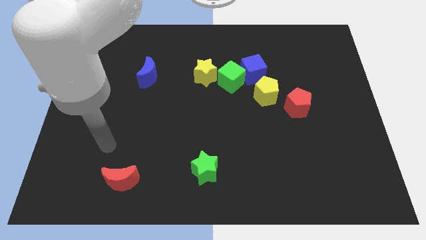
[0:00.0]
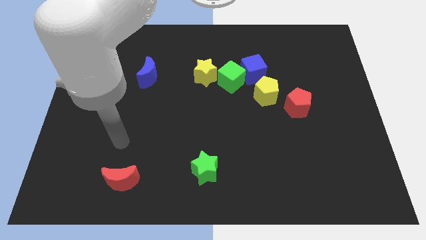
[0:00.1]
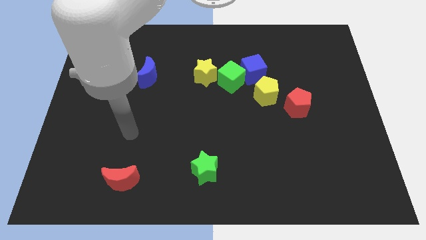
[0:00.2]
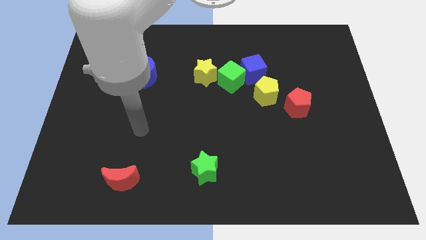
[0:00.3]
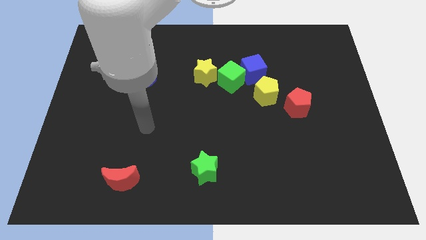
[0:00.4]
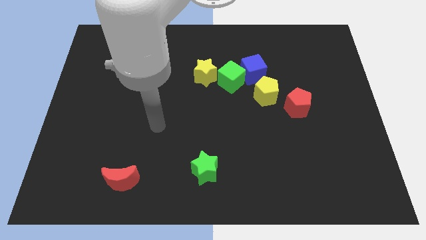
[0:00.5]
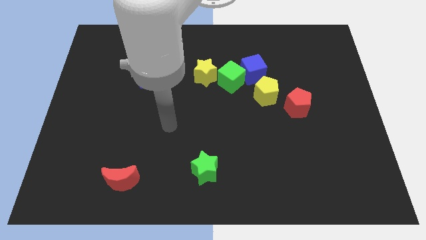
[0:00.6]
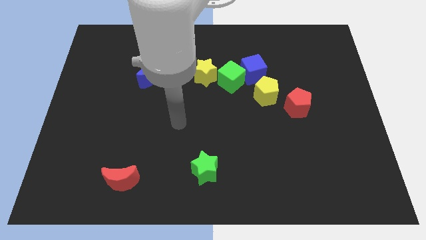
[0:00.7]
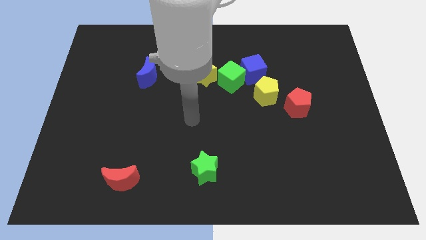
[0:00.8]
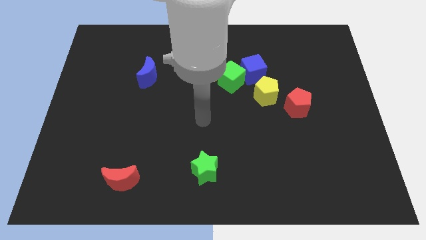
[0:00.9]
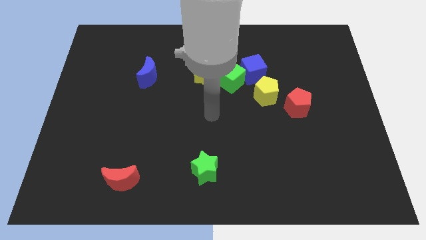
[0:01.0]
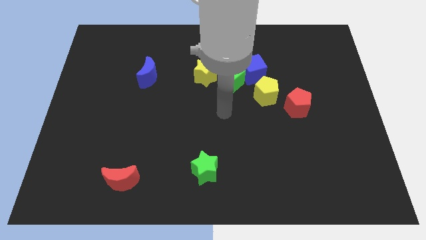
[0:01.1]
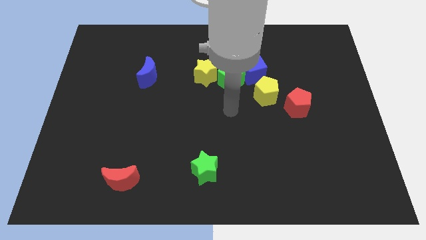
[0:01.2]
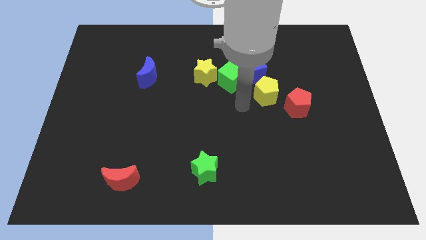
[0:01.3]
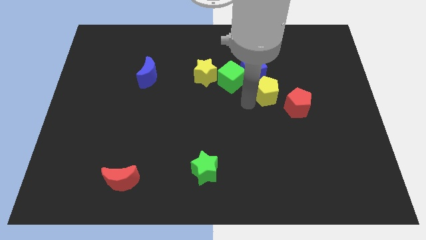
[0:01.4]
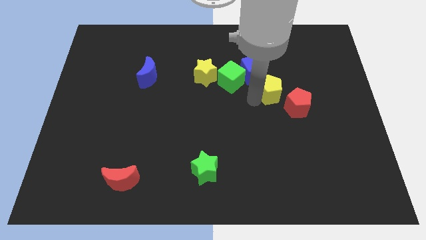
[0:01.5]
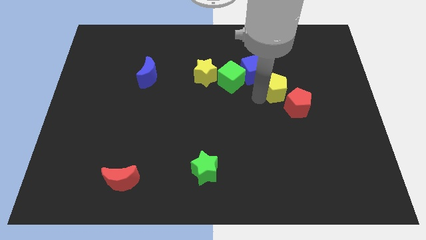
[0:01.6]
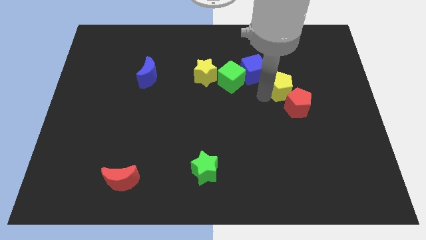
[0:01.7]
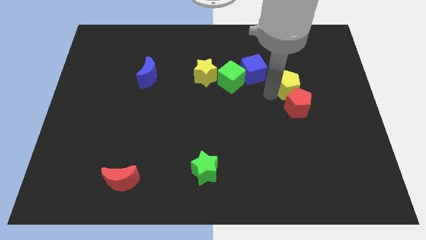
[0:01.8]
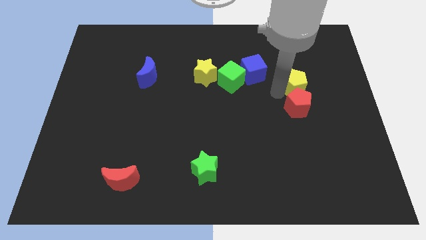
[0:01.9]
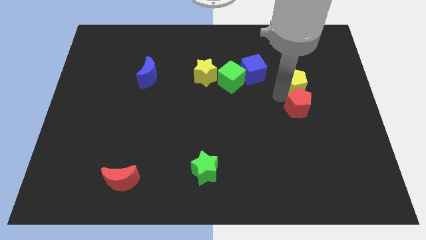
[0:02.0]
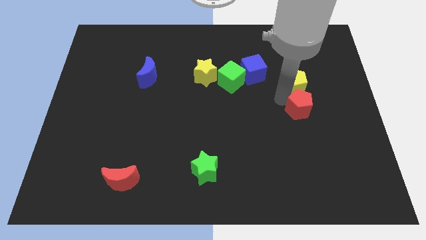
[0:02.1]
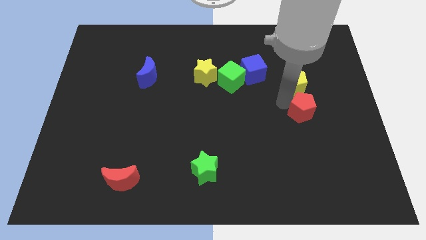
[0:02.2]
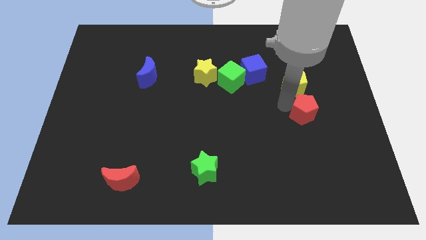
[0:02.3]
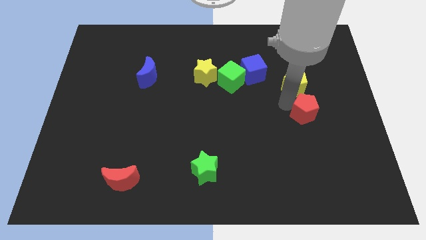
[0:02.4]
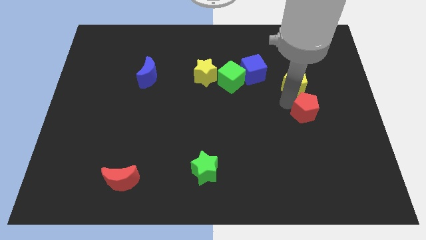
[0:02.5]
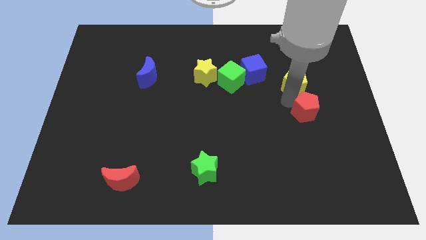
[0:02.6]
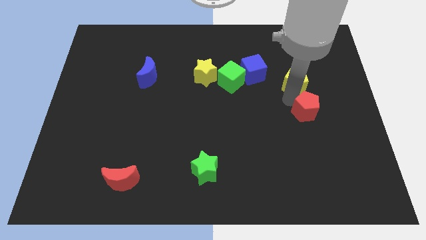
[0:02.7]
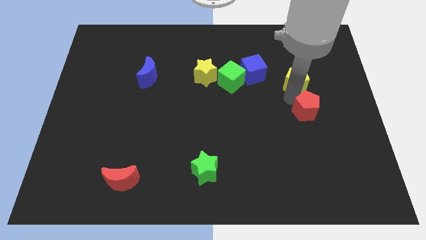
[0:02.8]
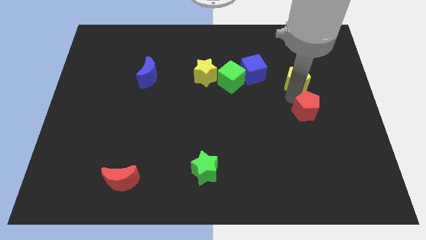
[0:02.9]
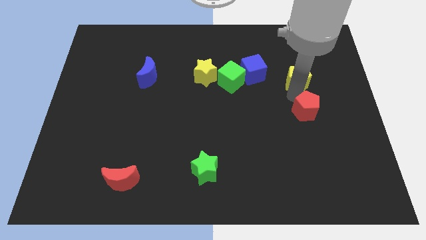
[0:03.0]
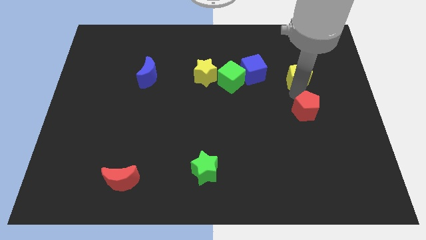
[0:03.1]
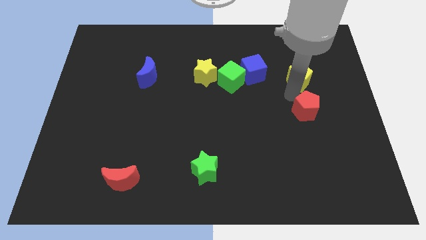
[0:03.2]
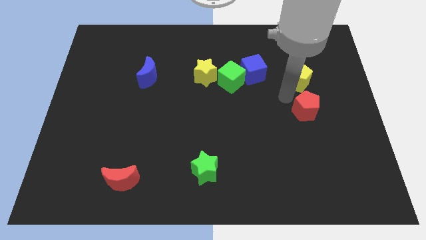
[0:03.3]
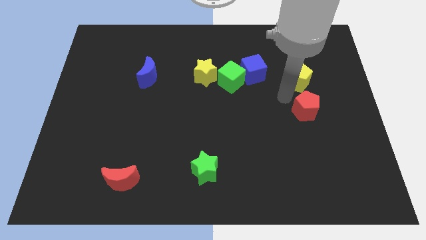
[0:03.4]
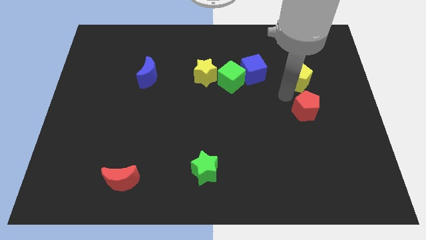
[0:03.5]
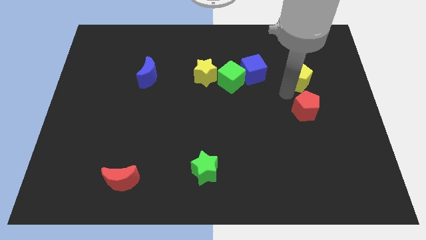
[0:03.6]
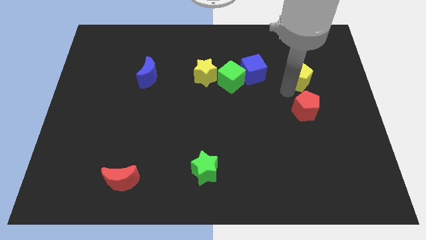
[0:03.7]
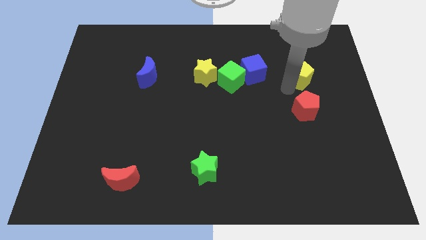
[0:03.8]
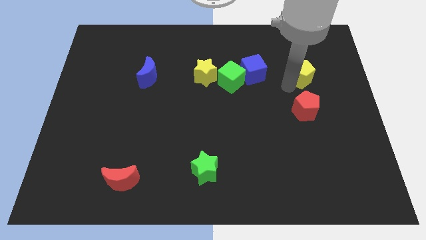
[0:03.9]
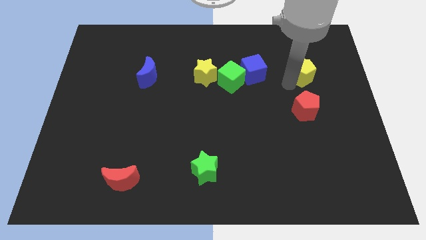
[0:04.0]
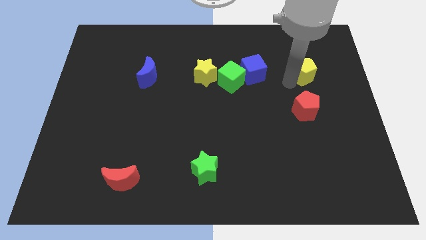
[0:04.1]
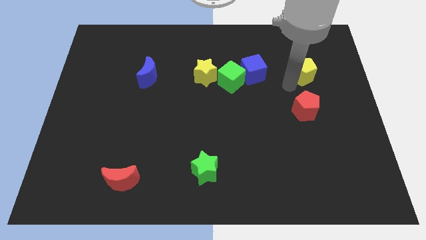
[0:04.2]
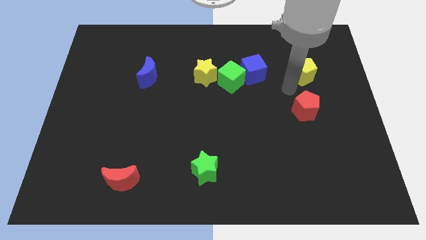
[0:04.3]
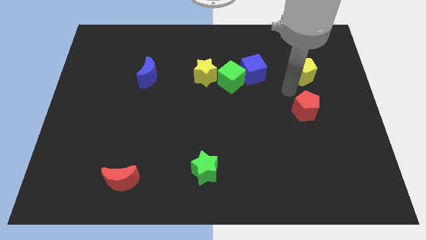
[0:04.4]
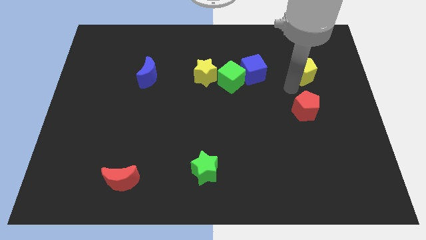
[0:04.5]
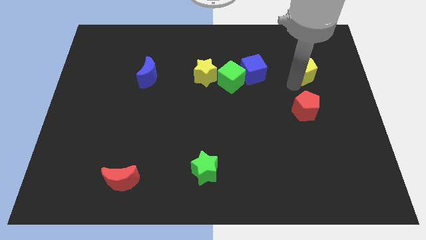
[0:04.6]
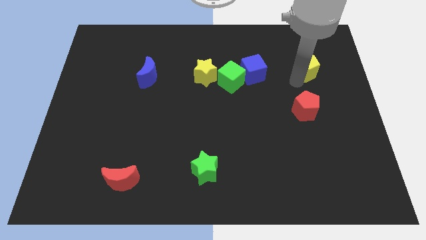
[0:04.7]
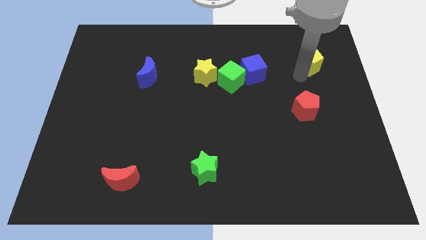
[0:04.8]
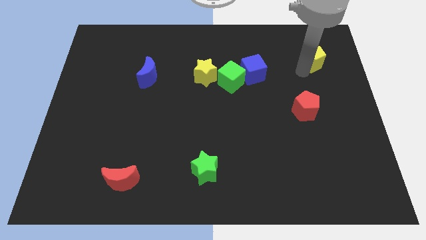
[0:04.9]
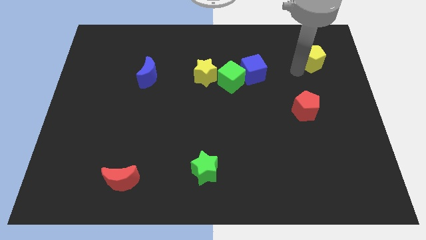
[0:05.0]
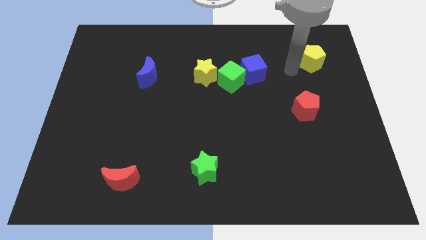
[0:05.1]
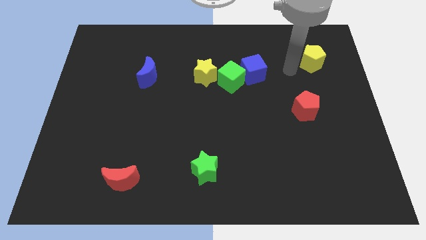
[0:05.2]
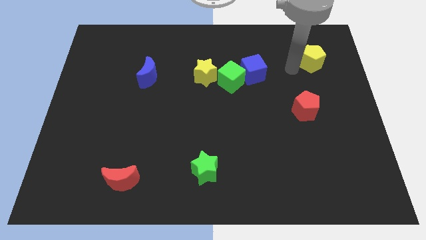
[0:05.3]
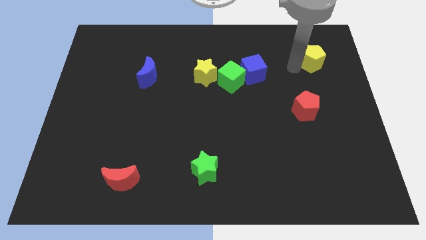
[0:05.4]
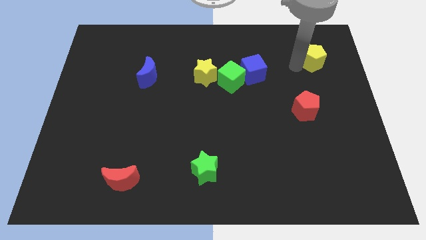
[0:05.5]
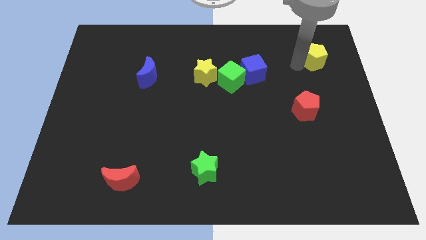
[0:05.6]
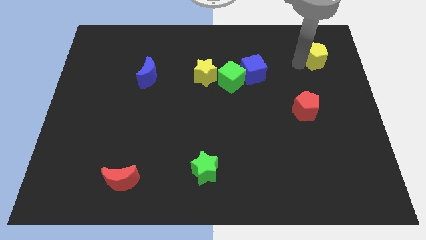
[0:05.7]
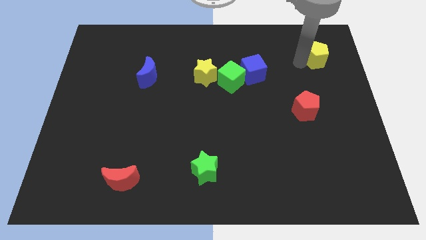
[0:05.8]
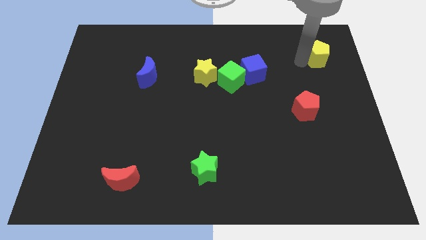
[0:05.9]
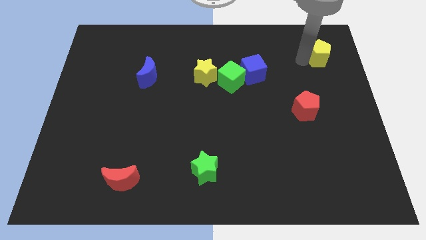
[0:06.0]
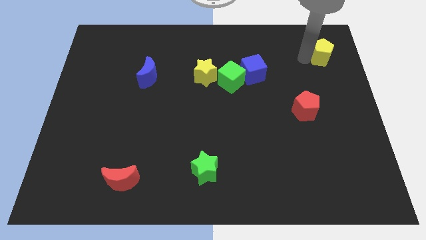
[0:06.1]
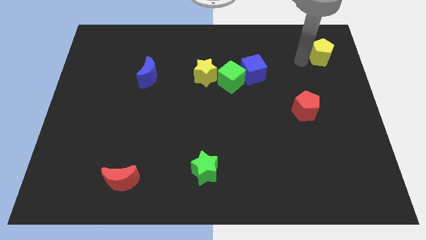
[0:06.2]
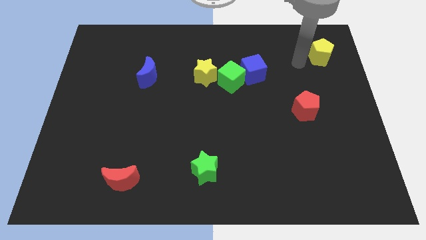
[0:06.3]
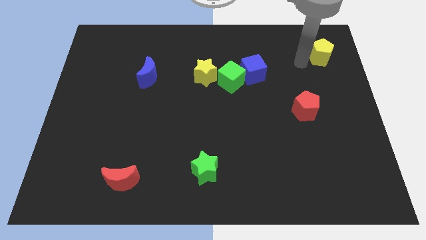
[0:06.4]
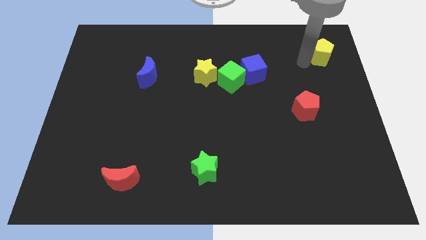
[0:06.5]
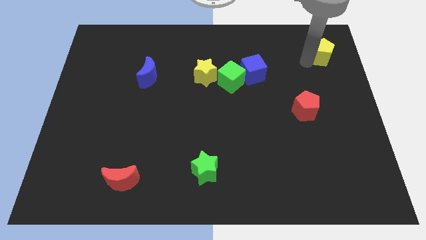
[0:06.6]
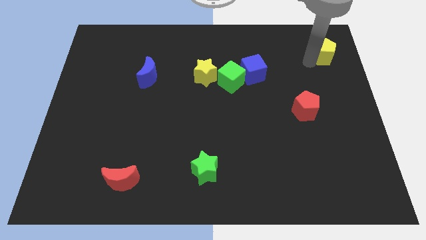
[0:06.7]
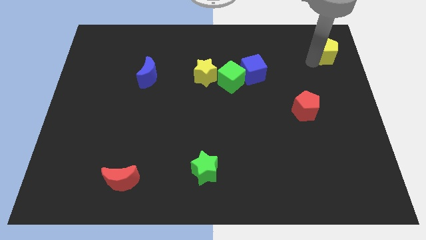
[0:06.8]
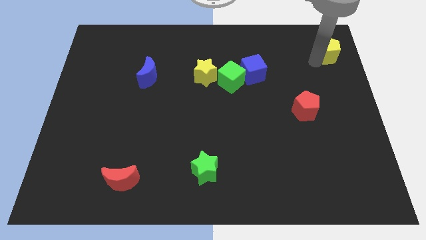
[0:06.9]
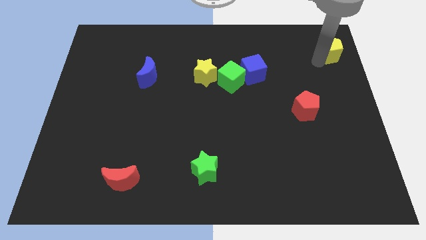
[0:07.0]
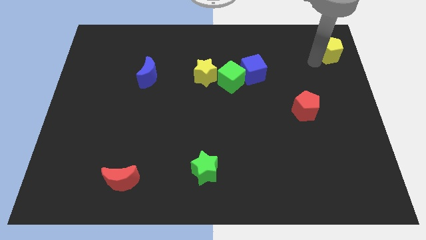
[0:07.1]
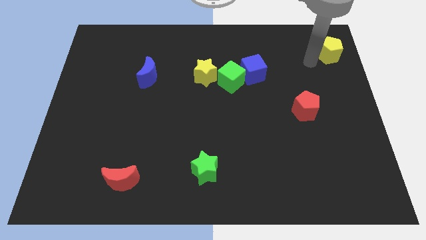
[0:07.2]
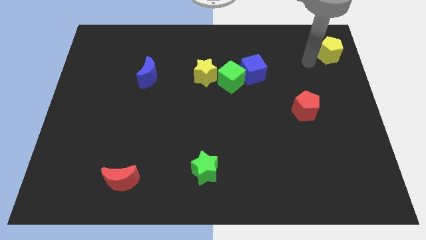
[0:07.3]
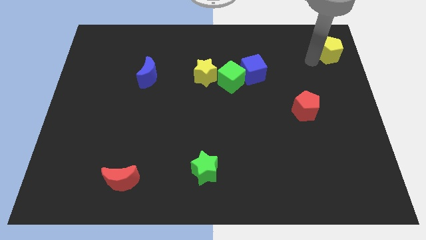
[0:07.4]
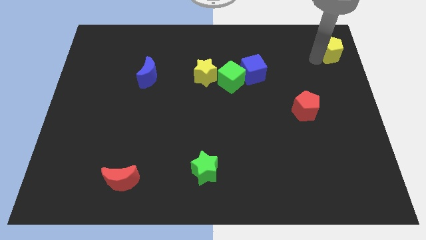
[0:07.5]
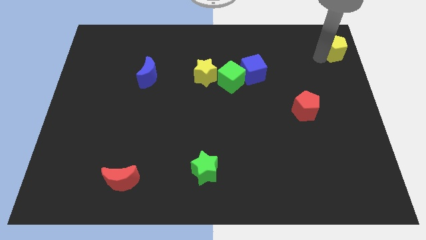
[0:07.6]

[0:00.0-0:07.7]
move the yellow pentagon to the top right of the board
